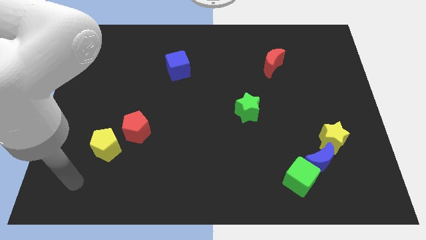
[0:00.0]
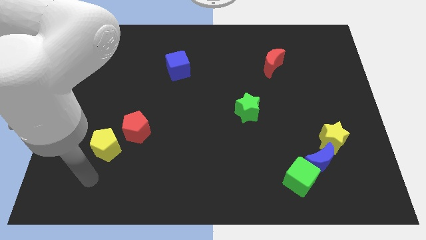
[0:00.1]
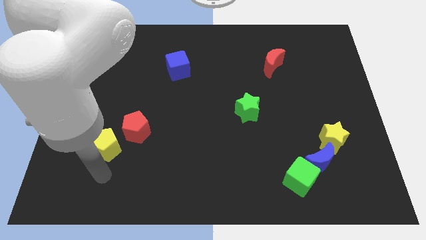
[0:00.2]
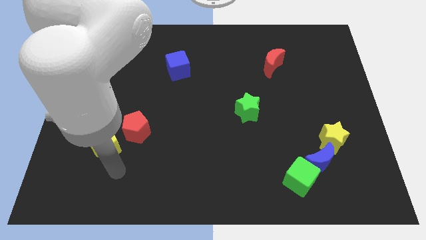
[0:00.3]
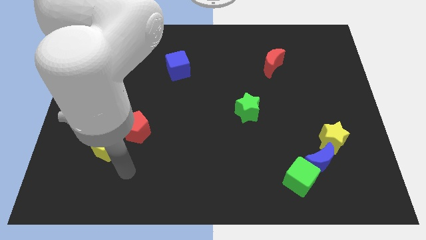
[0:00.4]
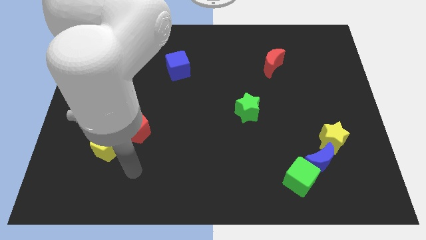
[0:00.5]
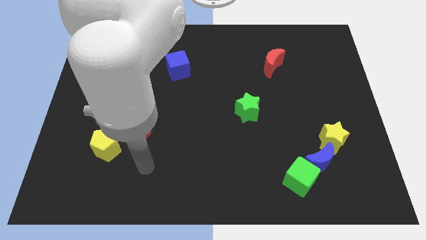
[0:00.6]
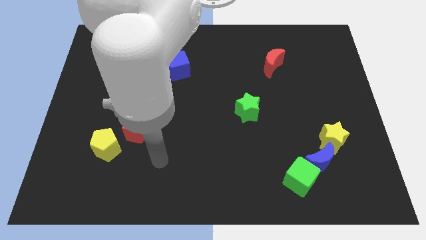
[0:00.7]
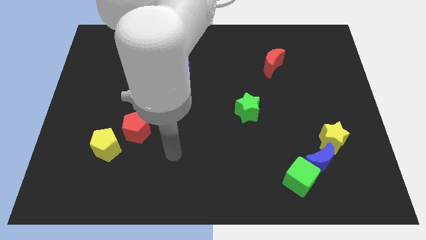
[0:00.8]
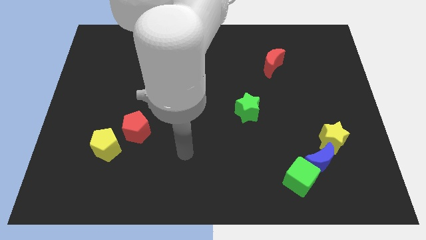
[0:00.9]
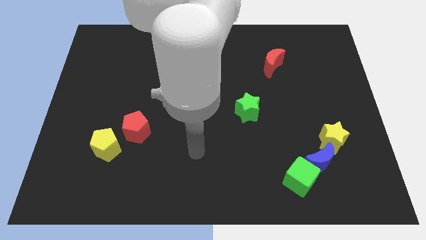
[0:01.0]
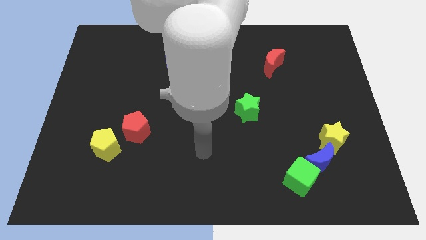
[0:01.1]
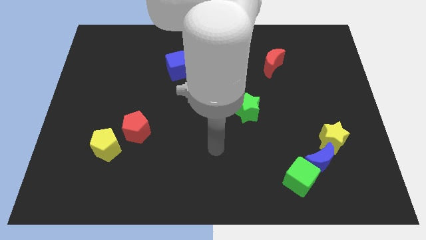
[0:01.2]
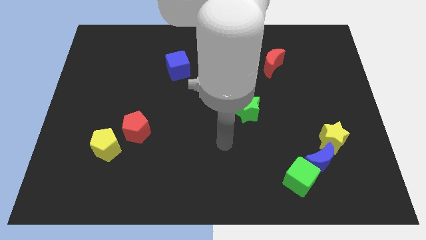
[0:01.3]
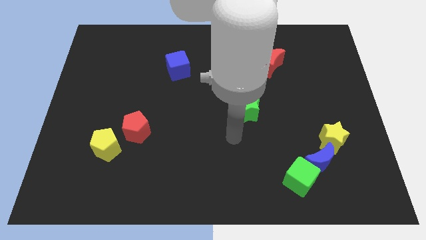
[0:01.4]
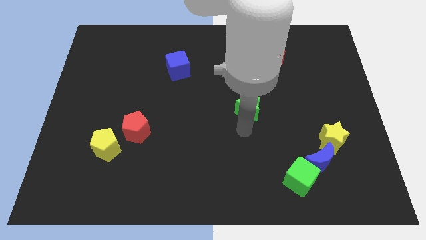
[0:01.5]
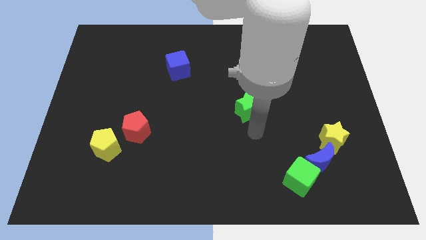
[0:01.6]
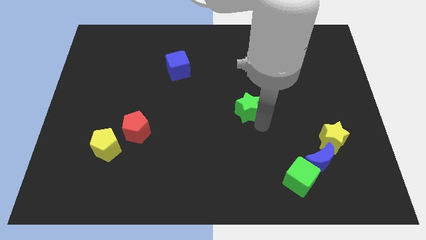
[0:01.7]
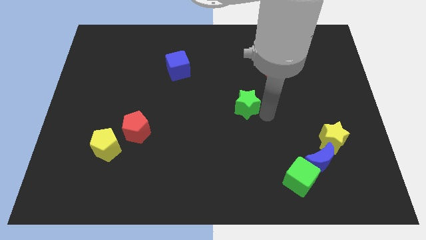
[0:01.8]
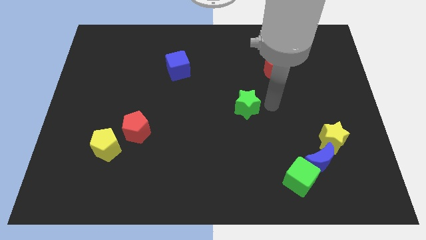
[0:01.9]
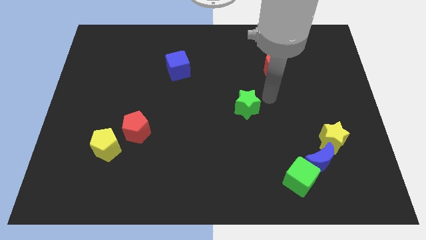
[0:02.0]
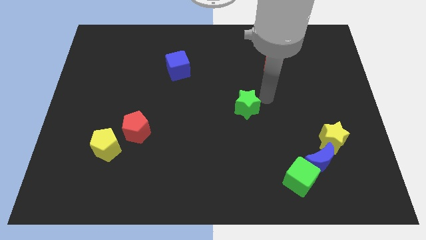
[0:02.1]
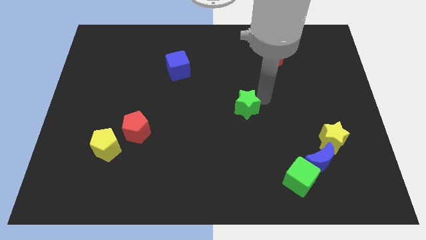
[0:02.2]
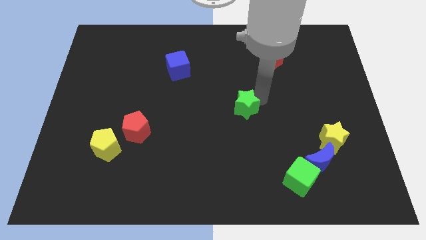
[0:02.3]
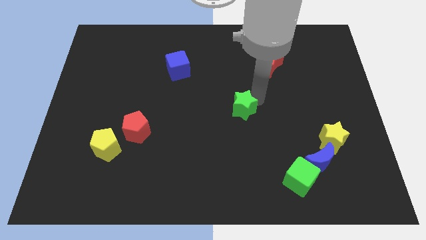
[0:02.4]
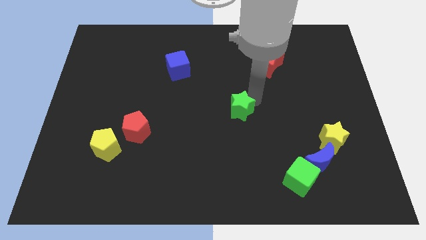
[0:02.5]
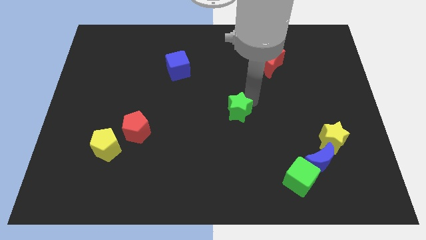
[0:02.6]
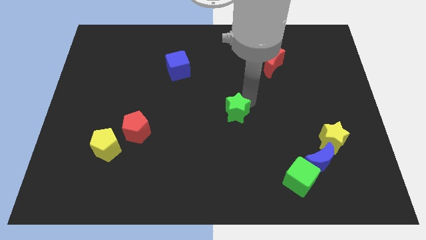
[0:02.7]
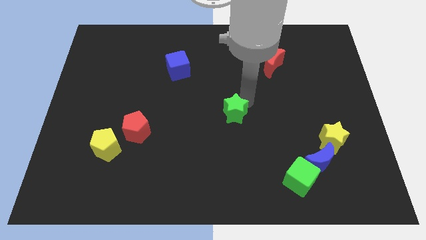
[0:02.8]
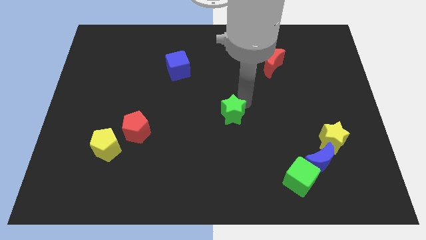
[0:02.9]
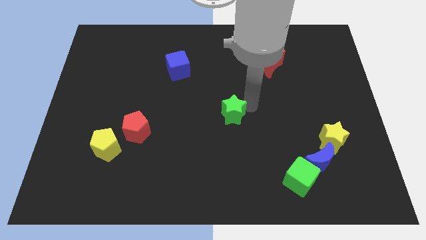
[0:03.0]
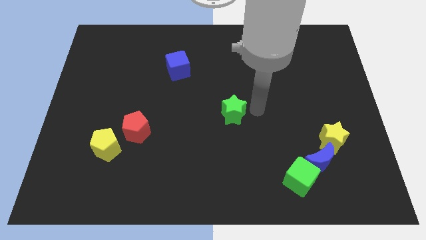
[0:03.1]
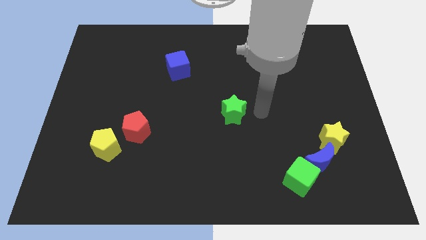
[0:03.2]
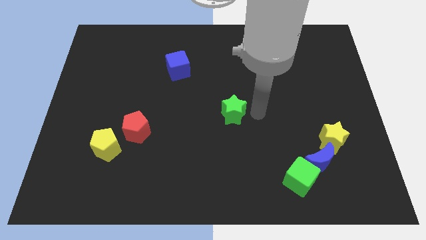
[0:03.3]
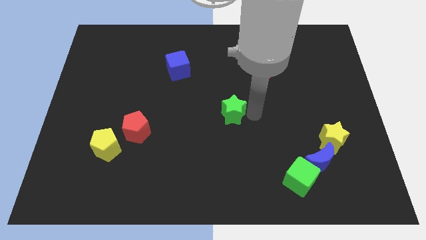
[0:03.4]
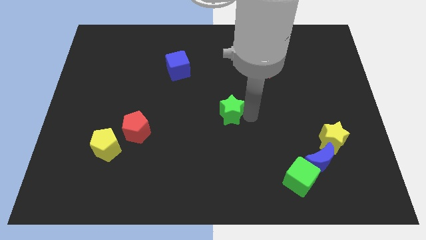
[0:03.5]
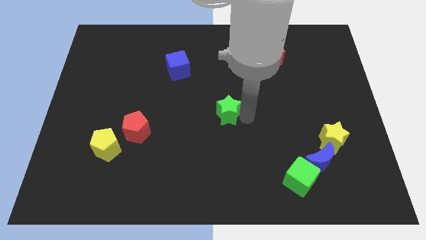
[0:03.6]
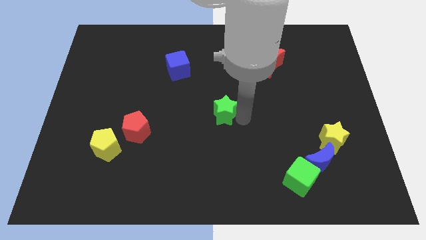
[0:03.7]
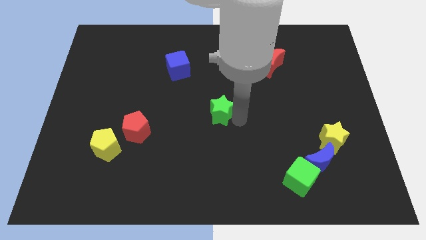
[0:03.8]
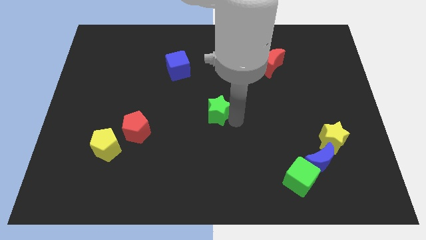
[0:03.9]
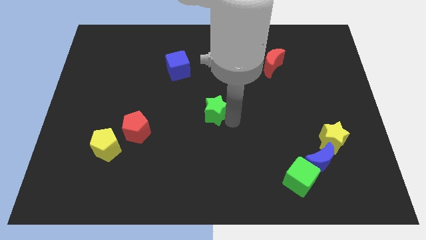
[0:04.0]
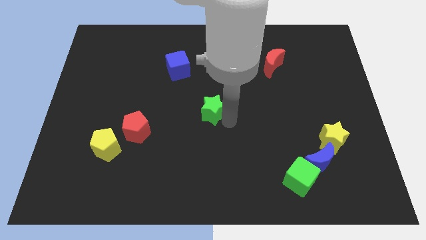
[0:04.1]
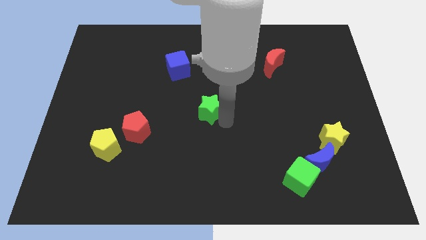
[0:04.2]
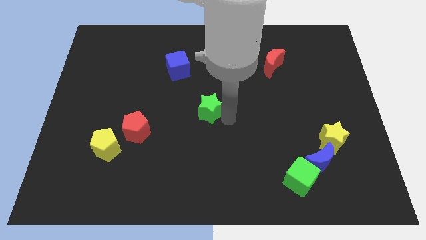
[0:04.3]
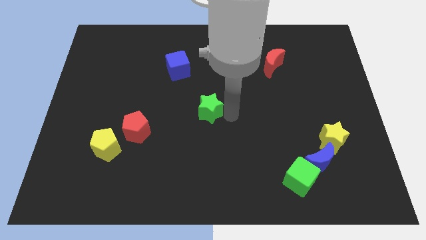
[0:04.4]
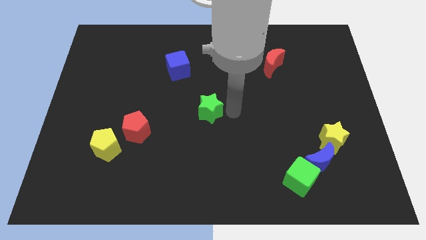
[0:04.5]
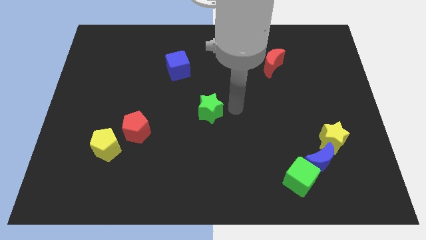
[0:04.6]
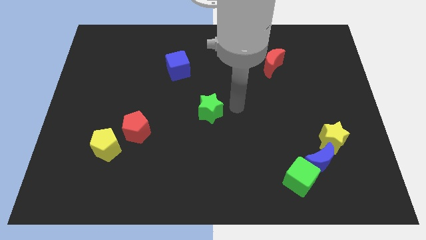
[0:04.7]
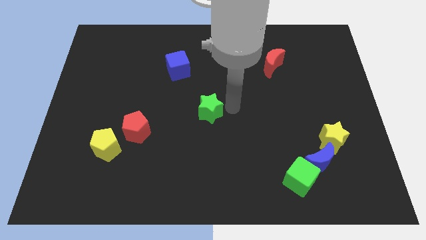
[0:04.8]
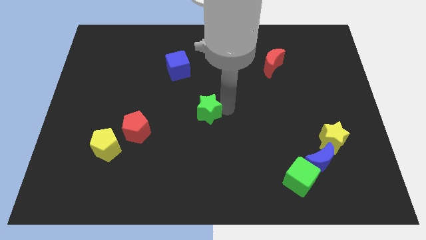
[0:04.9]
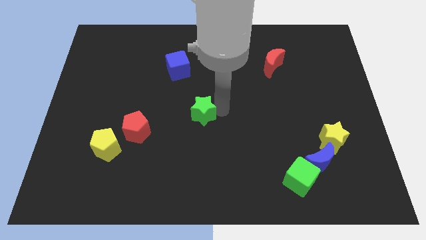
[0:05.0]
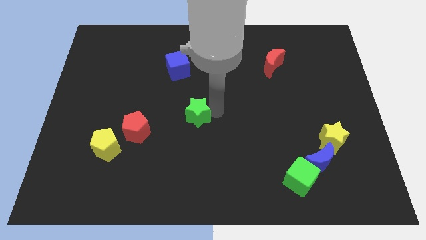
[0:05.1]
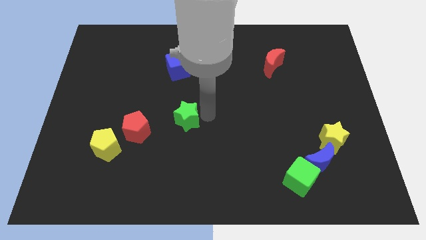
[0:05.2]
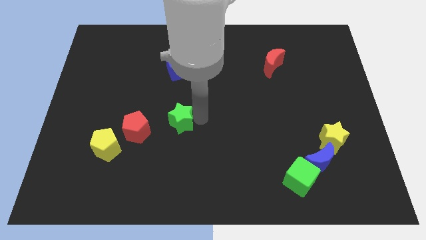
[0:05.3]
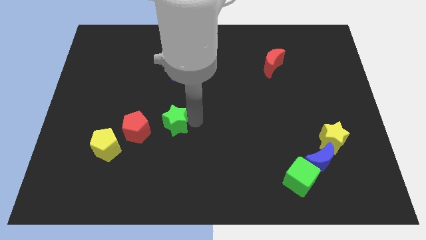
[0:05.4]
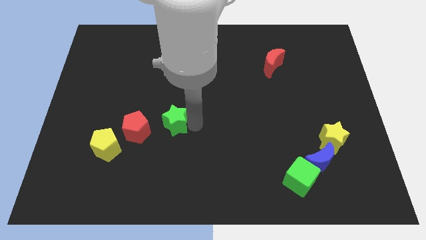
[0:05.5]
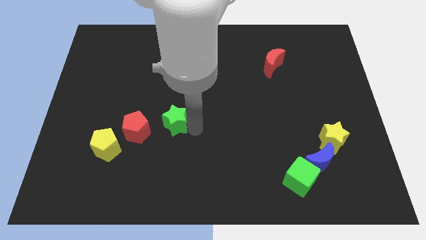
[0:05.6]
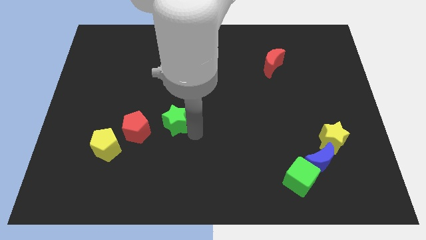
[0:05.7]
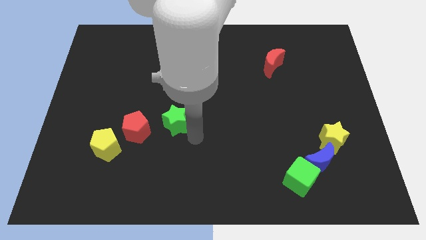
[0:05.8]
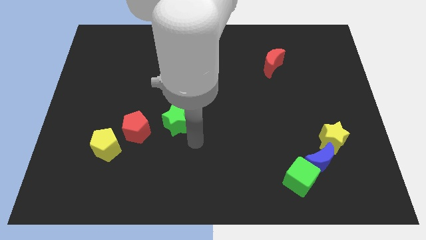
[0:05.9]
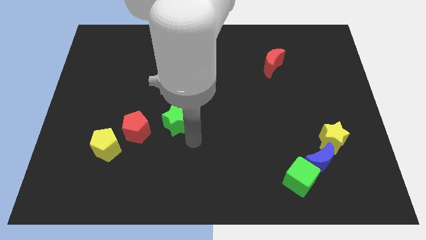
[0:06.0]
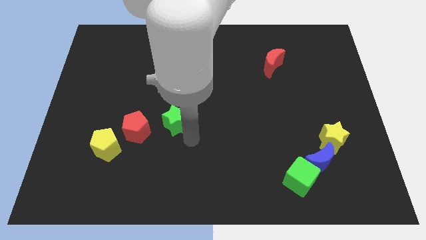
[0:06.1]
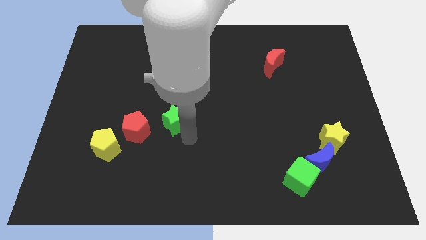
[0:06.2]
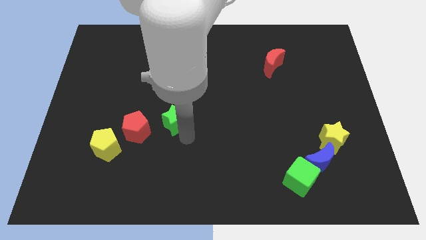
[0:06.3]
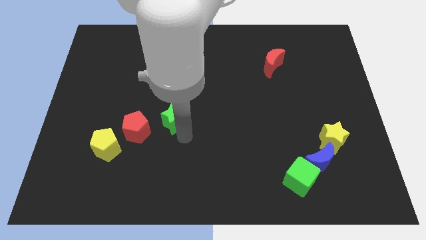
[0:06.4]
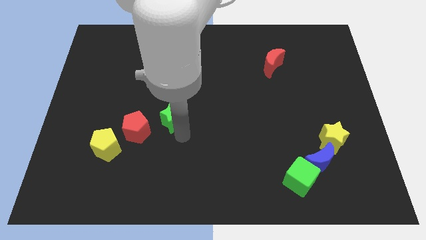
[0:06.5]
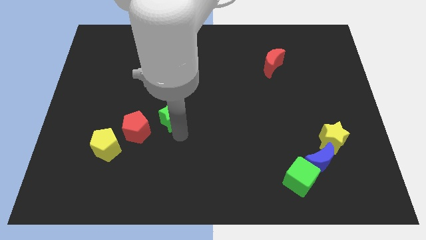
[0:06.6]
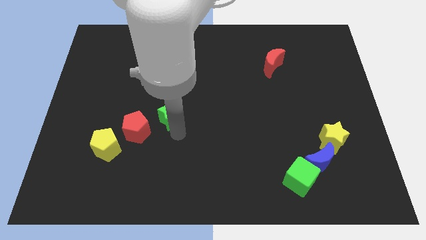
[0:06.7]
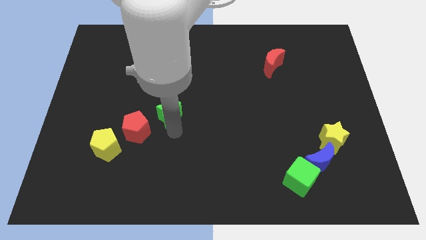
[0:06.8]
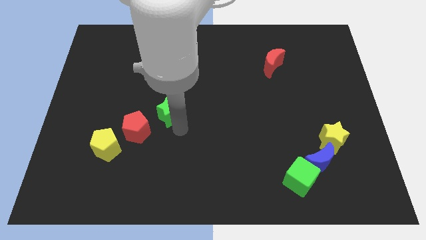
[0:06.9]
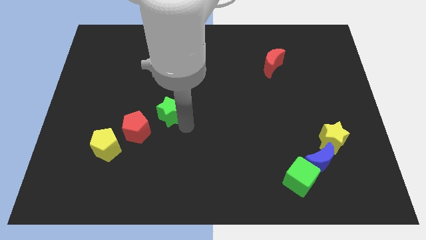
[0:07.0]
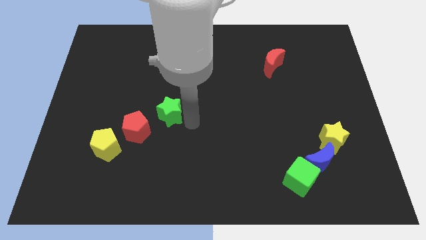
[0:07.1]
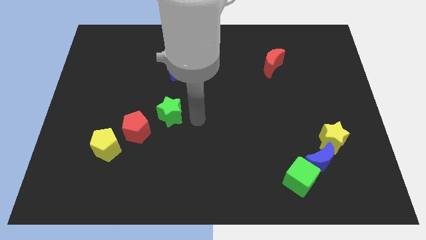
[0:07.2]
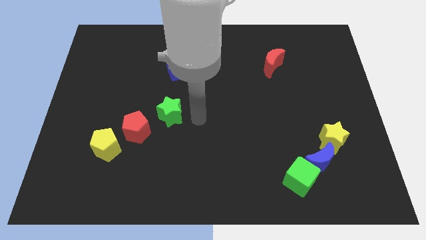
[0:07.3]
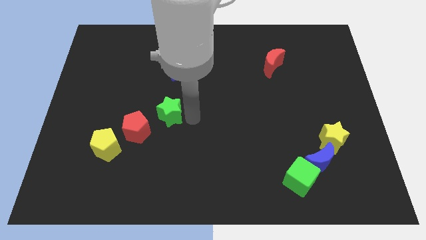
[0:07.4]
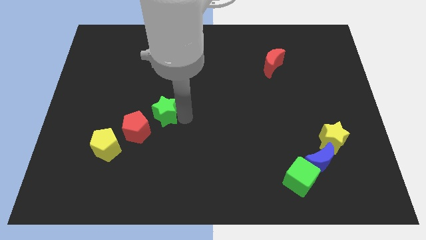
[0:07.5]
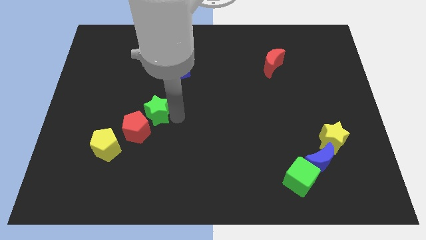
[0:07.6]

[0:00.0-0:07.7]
push the green star left

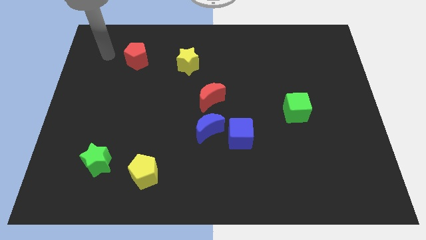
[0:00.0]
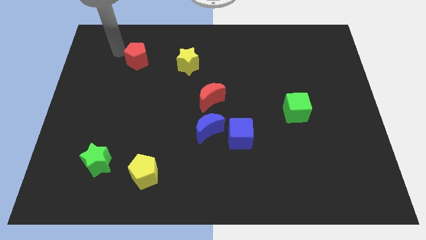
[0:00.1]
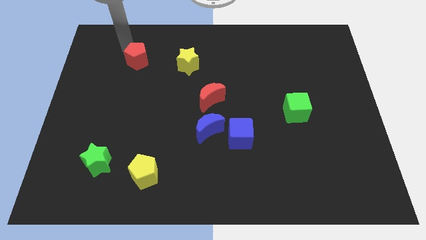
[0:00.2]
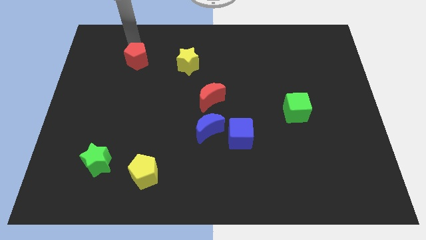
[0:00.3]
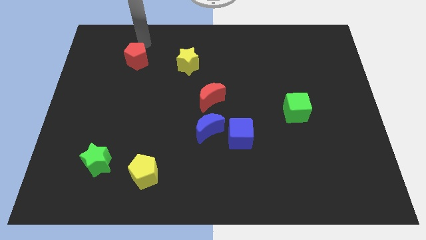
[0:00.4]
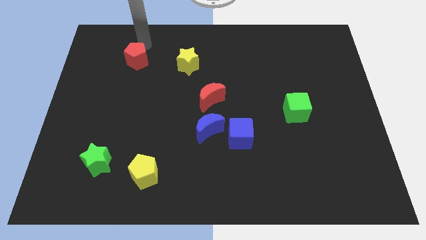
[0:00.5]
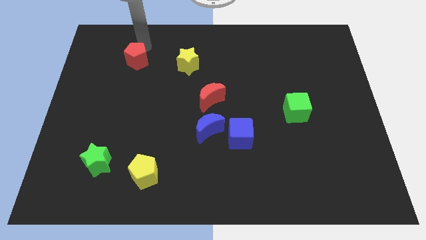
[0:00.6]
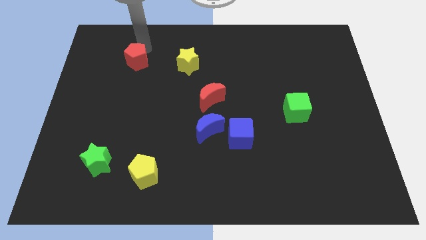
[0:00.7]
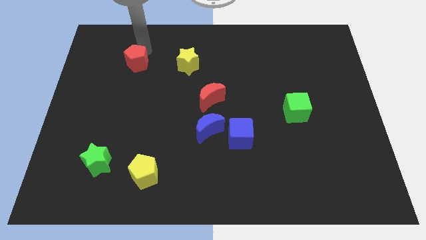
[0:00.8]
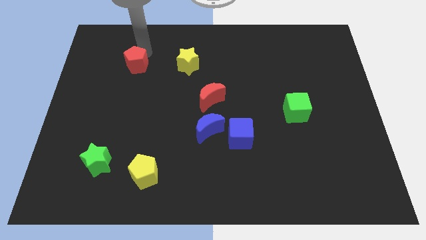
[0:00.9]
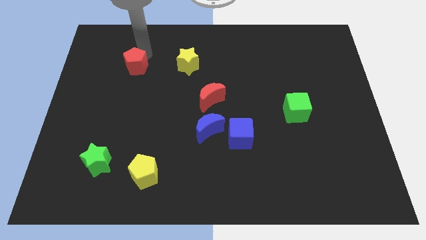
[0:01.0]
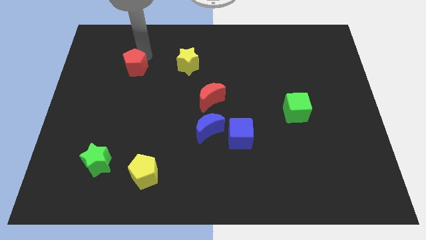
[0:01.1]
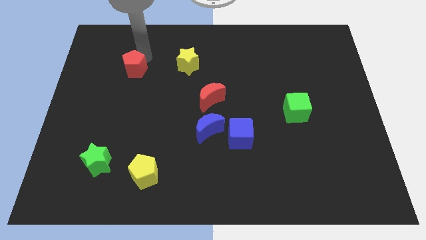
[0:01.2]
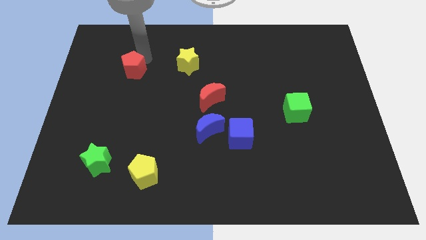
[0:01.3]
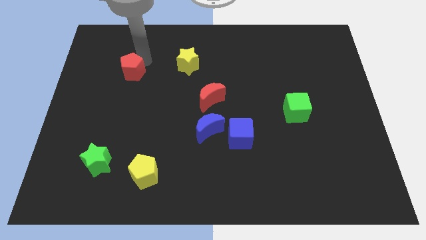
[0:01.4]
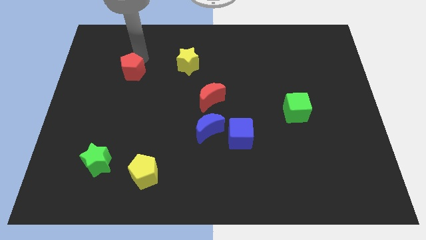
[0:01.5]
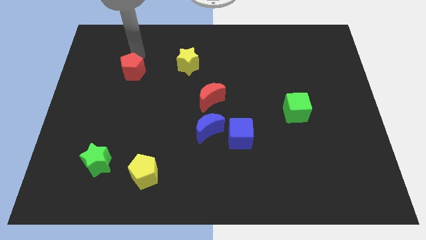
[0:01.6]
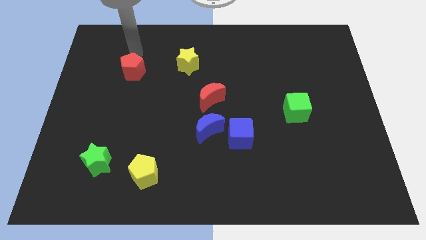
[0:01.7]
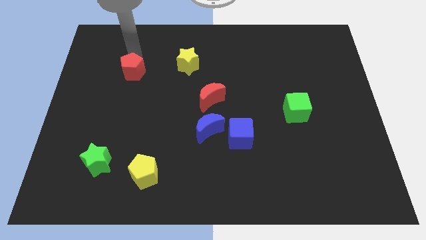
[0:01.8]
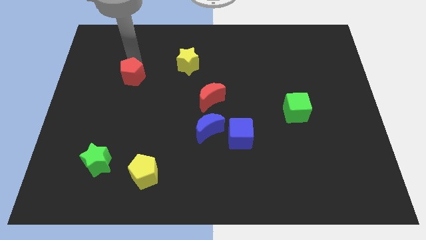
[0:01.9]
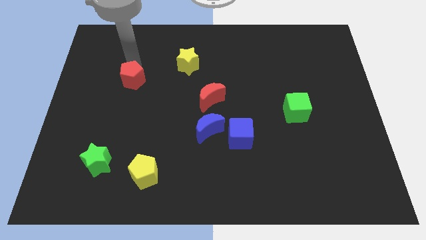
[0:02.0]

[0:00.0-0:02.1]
slide the red pentagon downwards a little bit
